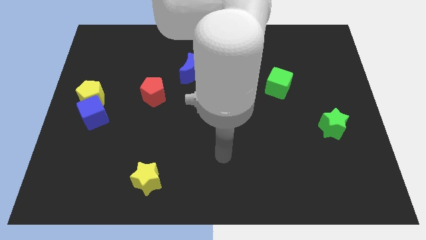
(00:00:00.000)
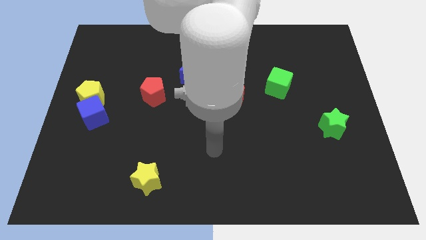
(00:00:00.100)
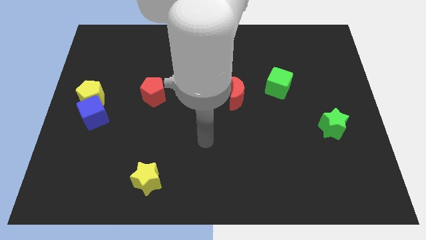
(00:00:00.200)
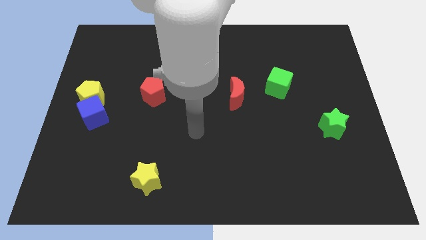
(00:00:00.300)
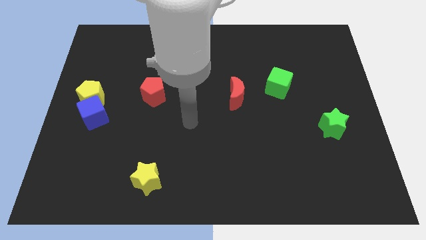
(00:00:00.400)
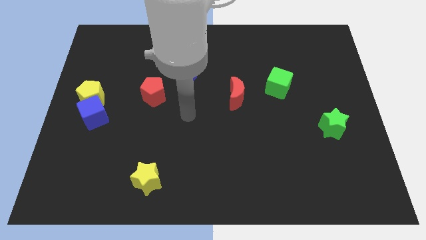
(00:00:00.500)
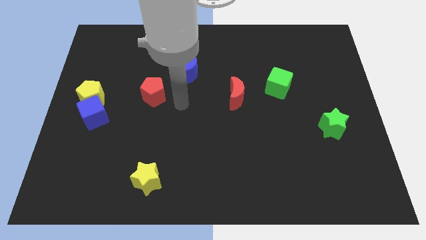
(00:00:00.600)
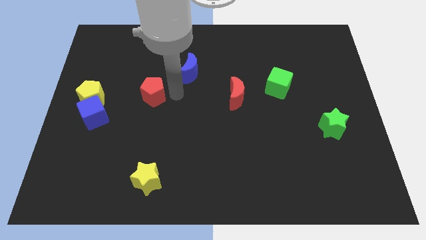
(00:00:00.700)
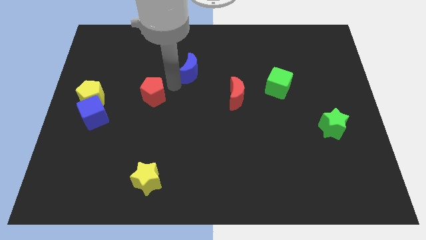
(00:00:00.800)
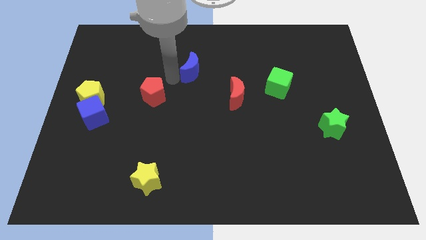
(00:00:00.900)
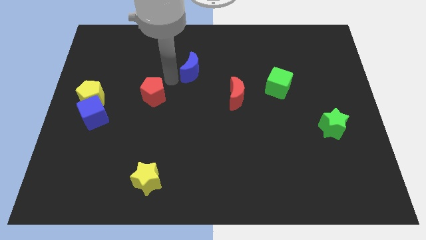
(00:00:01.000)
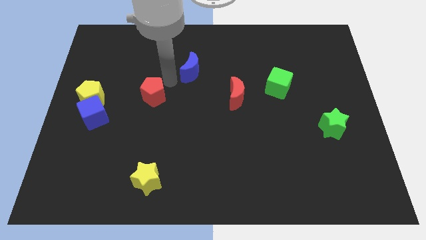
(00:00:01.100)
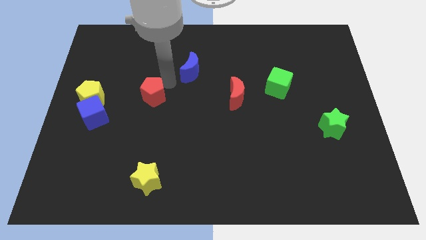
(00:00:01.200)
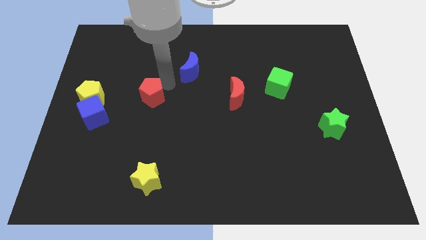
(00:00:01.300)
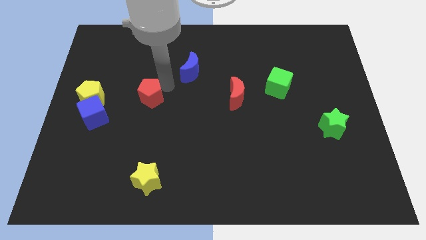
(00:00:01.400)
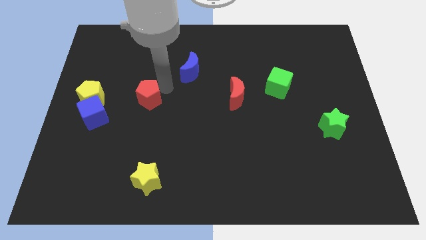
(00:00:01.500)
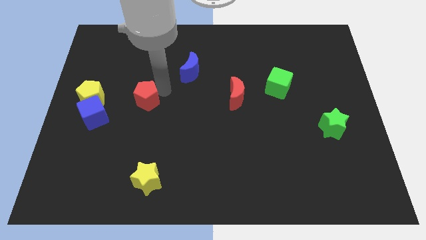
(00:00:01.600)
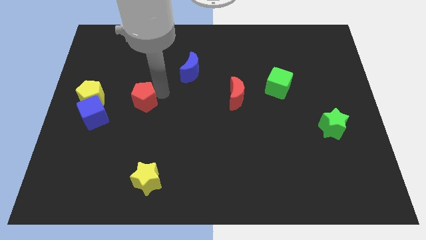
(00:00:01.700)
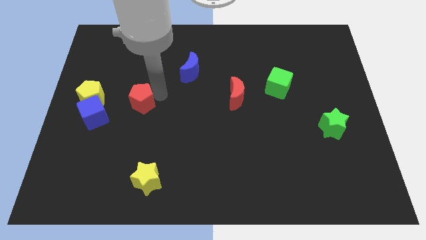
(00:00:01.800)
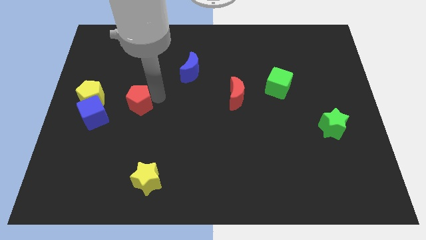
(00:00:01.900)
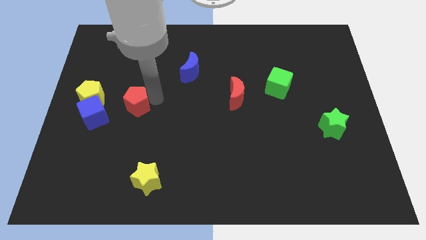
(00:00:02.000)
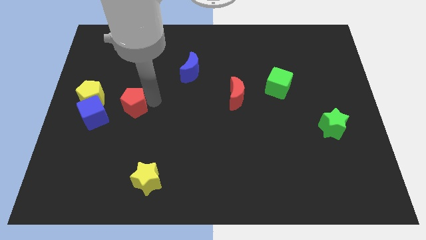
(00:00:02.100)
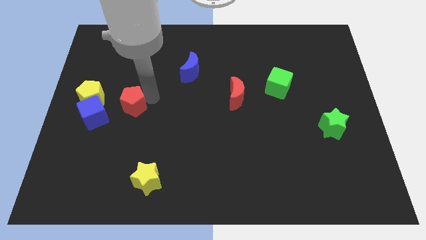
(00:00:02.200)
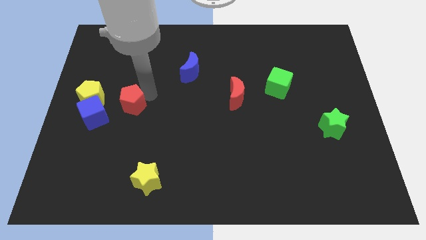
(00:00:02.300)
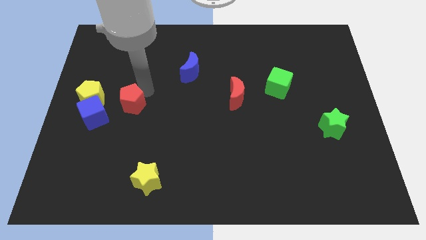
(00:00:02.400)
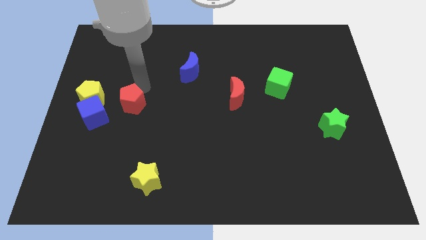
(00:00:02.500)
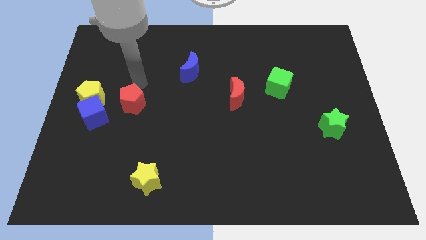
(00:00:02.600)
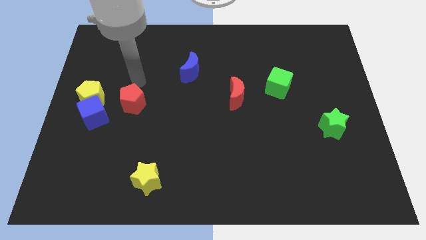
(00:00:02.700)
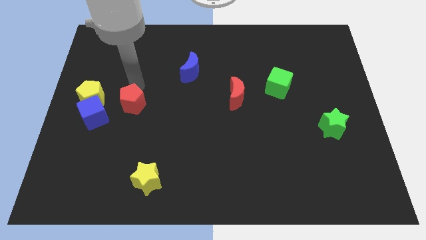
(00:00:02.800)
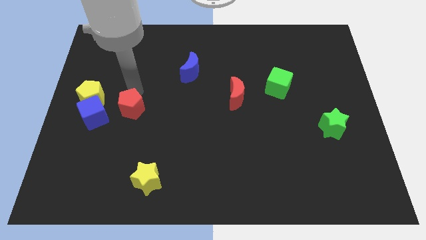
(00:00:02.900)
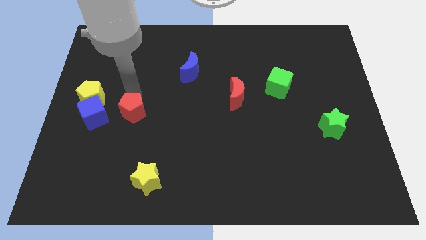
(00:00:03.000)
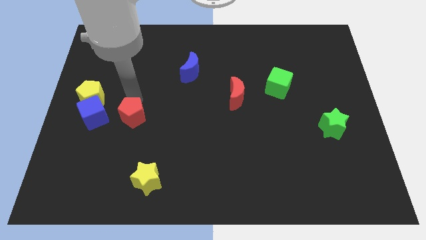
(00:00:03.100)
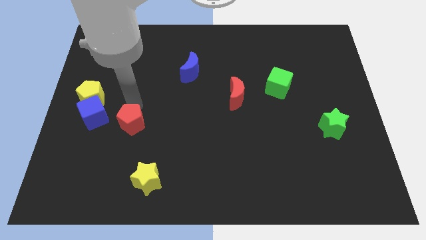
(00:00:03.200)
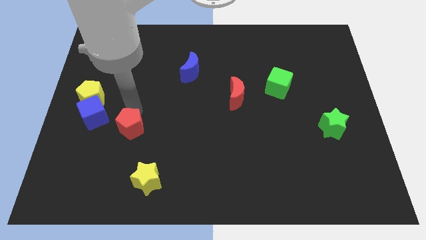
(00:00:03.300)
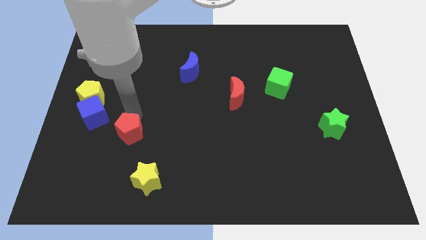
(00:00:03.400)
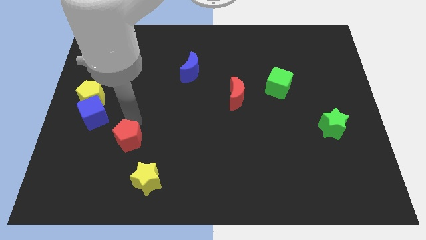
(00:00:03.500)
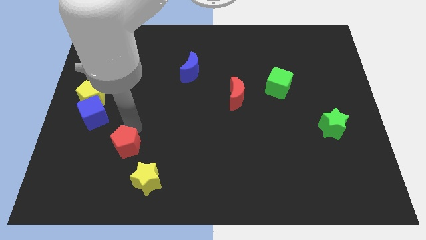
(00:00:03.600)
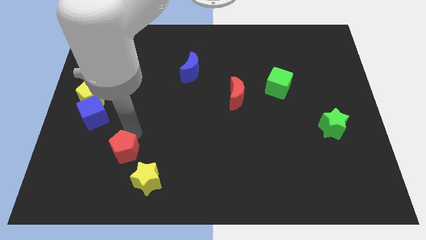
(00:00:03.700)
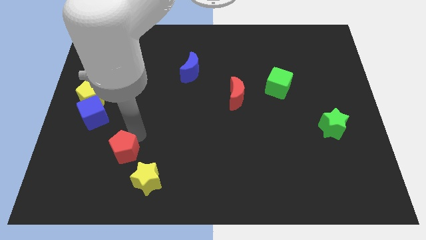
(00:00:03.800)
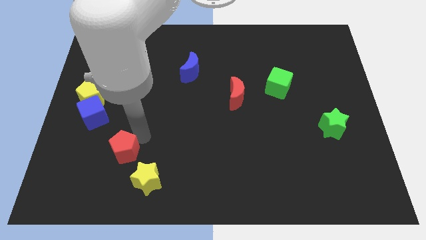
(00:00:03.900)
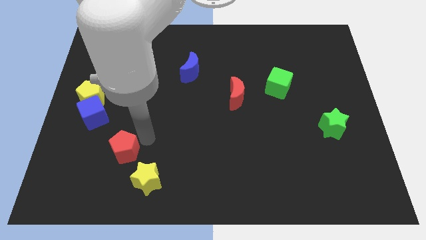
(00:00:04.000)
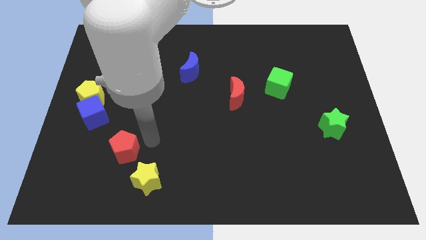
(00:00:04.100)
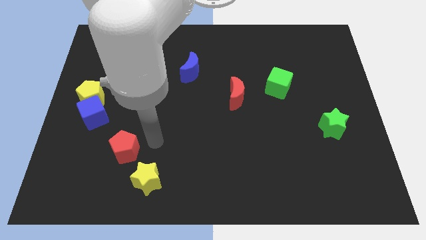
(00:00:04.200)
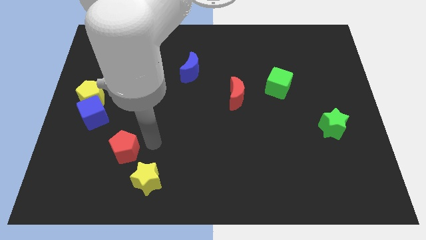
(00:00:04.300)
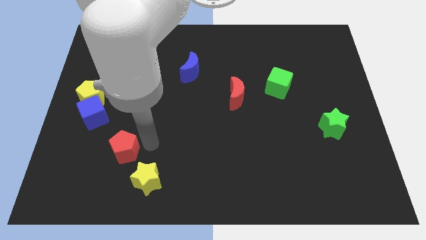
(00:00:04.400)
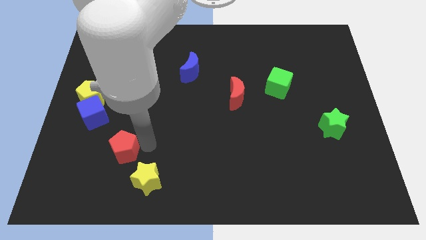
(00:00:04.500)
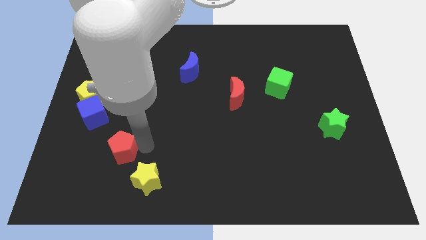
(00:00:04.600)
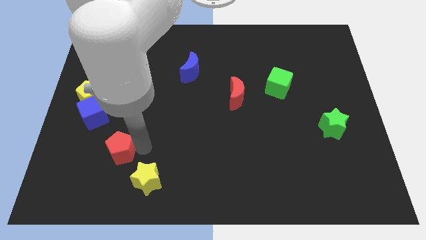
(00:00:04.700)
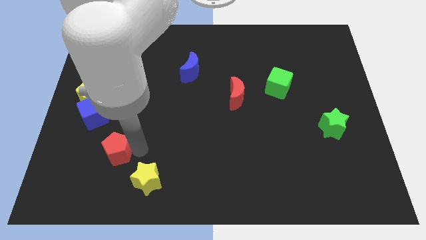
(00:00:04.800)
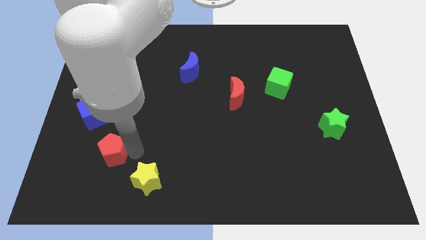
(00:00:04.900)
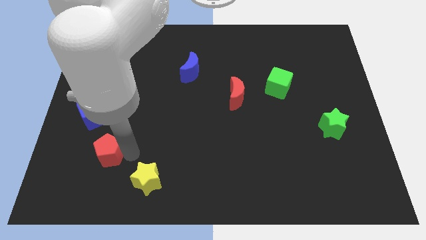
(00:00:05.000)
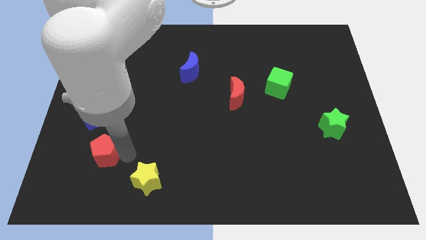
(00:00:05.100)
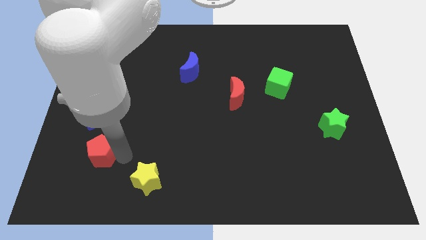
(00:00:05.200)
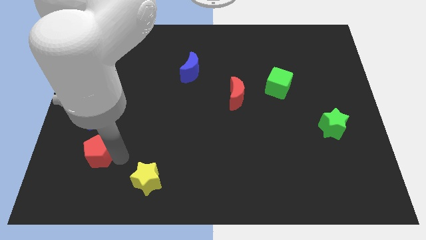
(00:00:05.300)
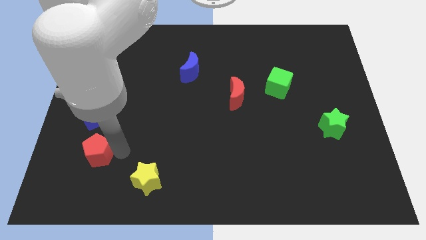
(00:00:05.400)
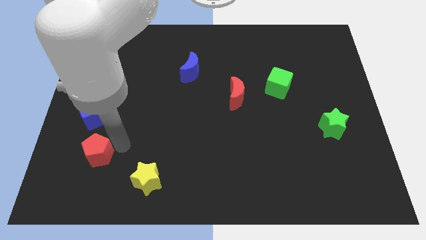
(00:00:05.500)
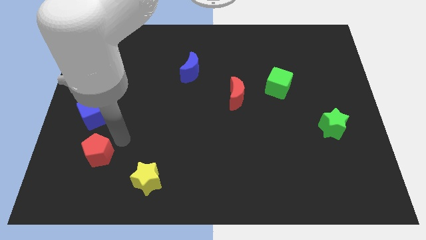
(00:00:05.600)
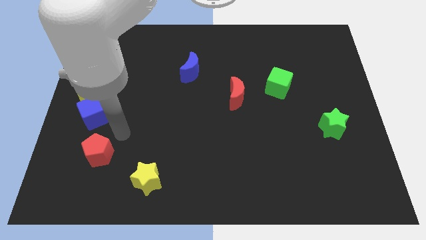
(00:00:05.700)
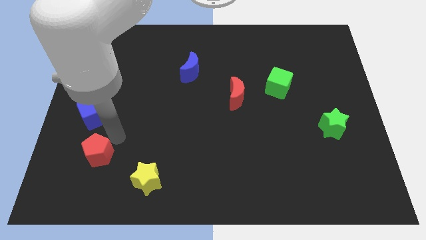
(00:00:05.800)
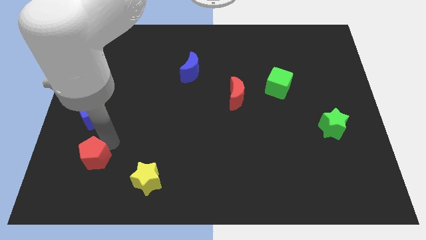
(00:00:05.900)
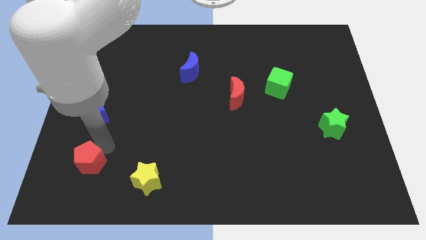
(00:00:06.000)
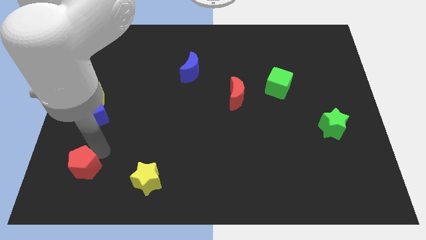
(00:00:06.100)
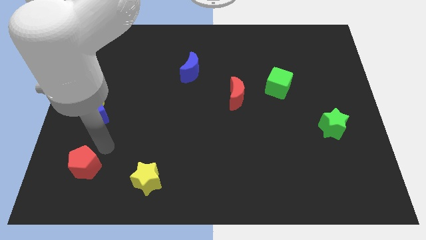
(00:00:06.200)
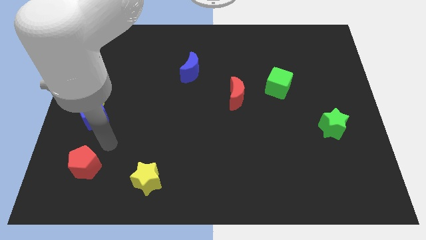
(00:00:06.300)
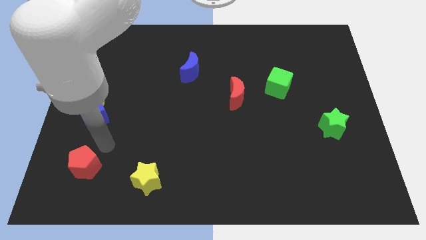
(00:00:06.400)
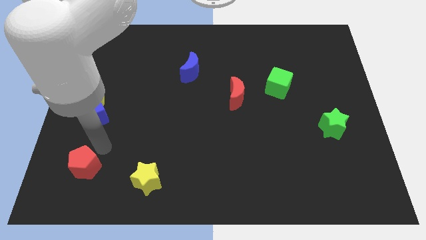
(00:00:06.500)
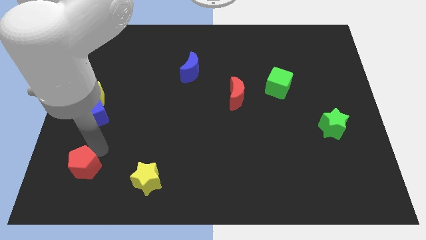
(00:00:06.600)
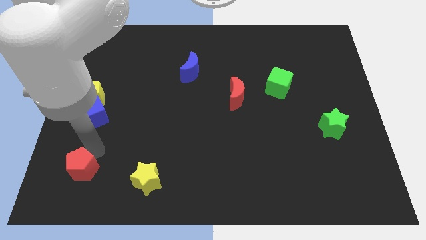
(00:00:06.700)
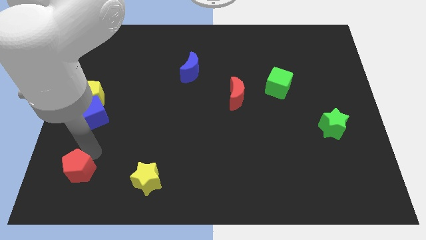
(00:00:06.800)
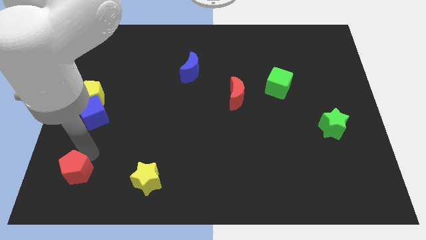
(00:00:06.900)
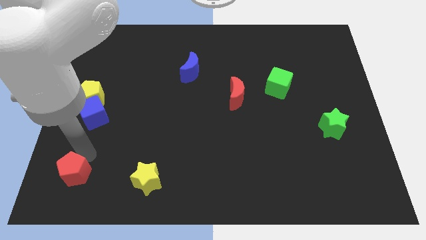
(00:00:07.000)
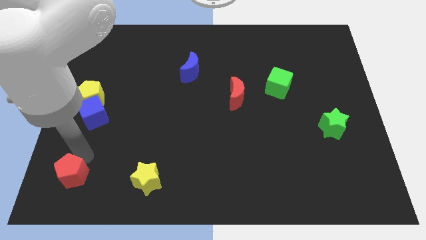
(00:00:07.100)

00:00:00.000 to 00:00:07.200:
move the red pentagon to the bottom left
